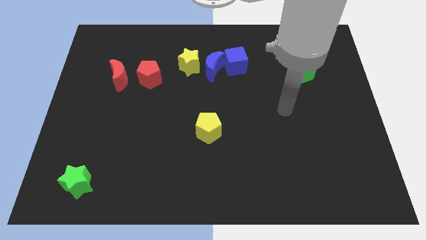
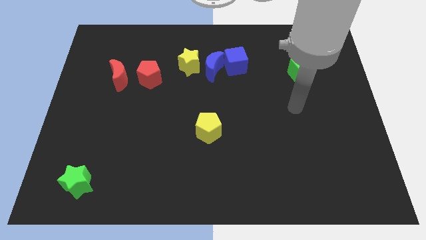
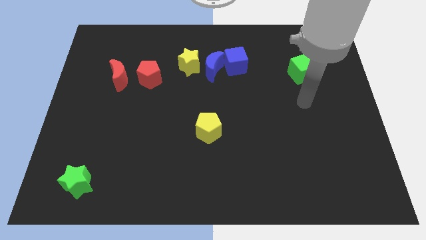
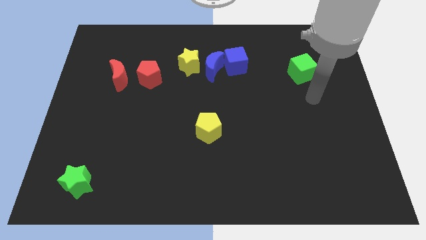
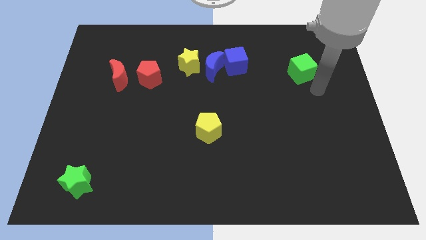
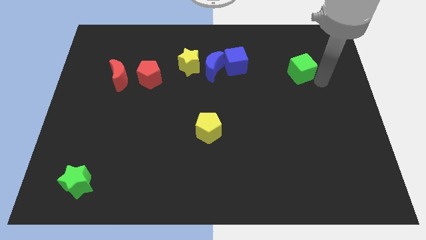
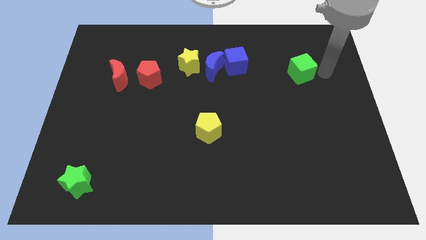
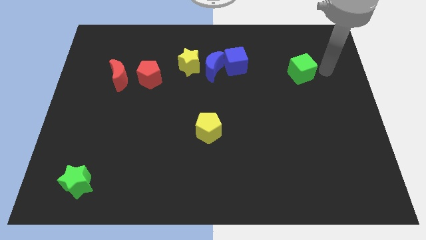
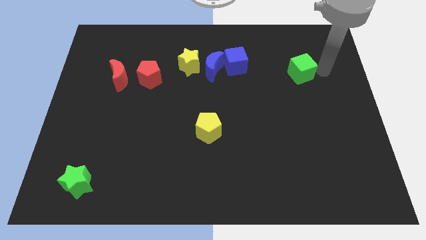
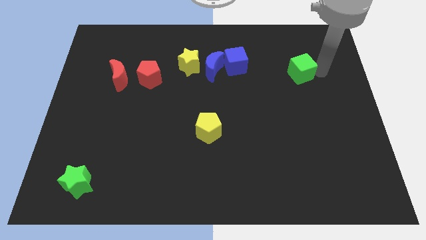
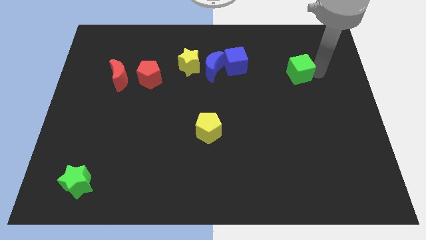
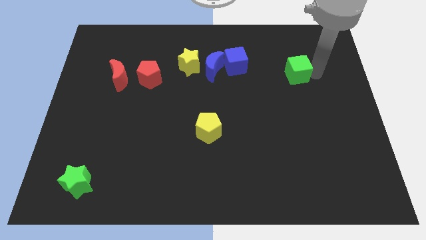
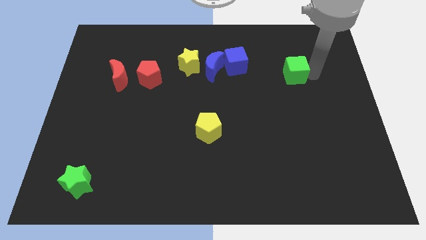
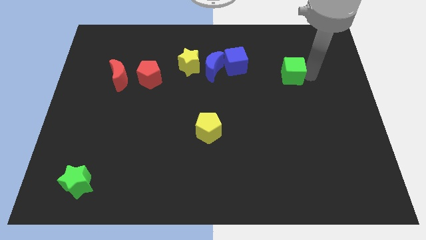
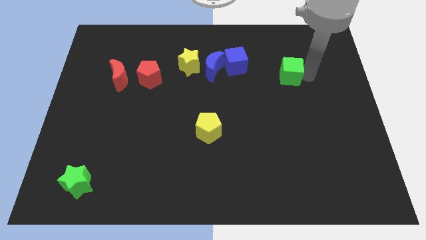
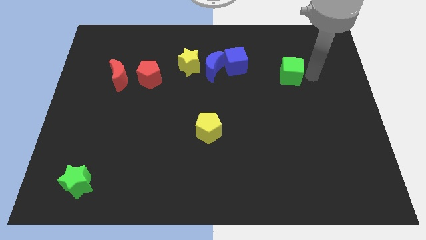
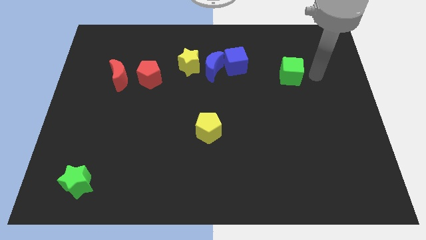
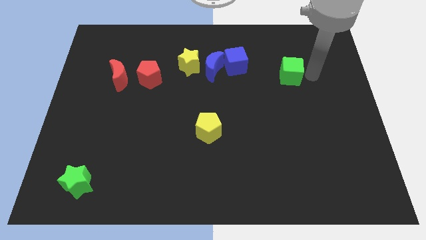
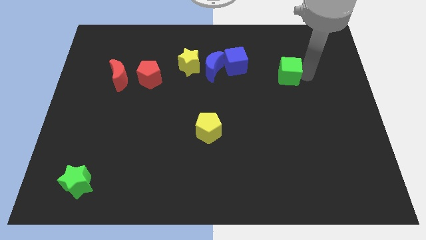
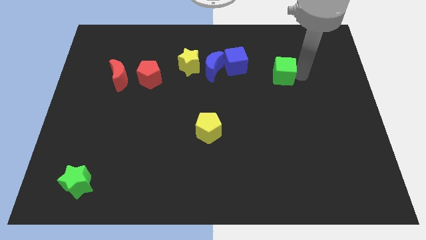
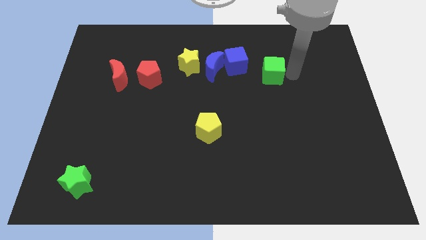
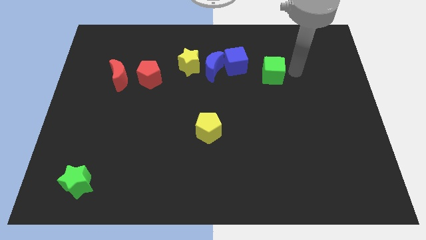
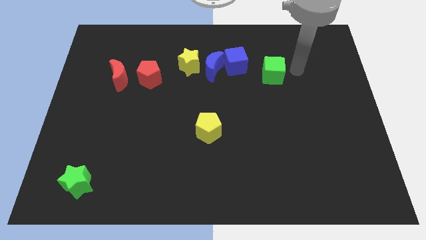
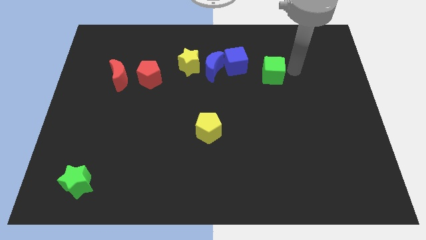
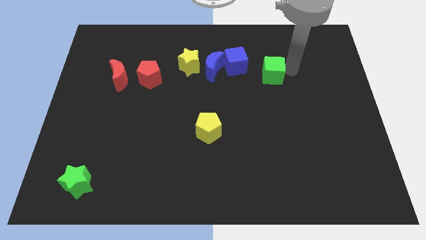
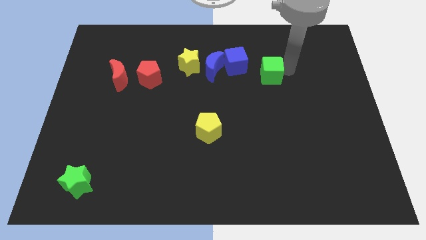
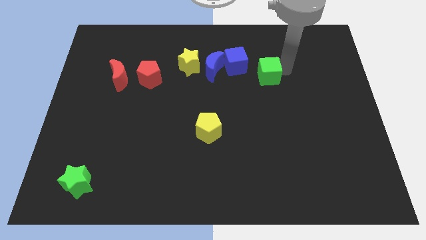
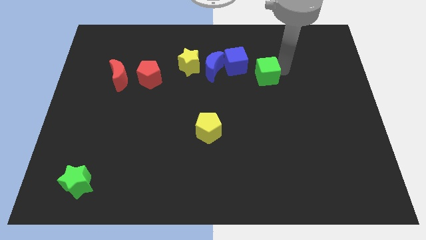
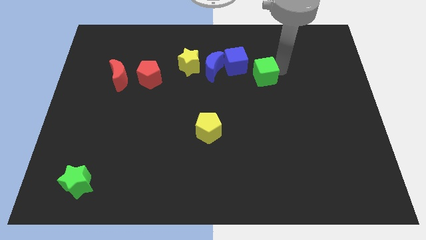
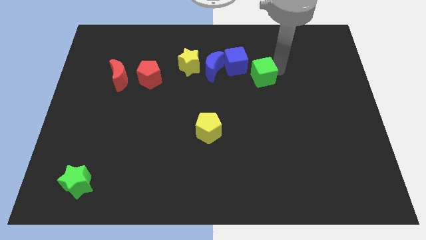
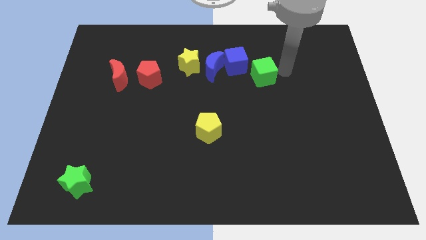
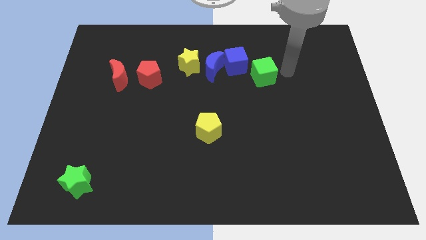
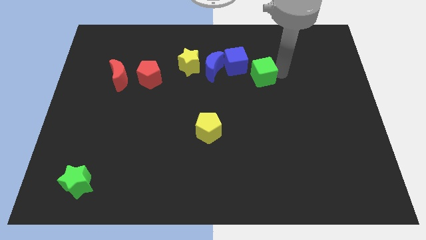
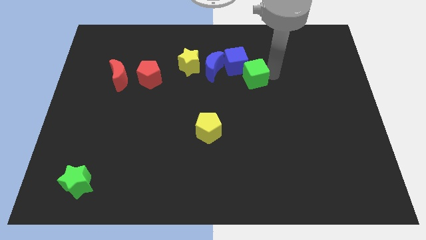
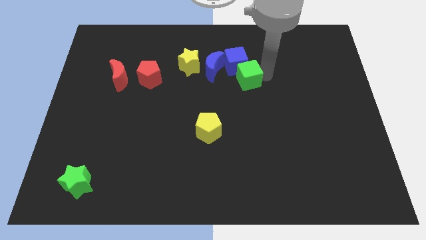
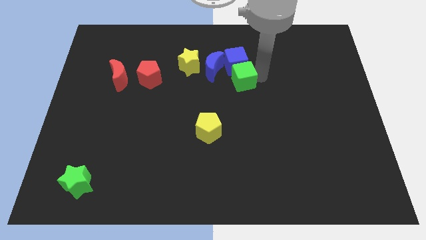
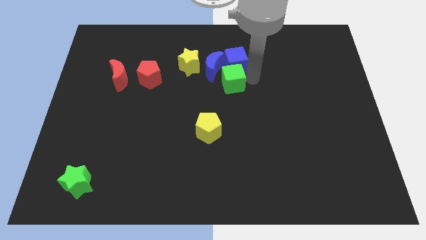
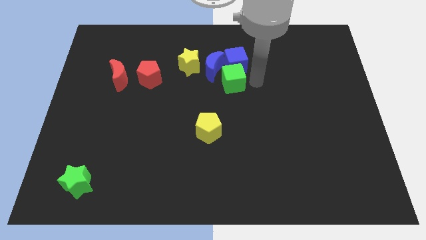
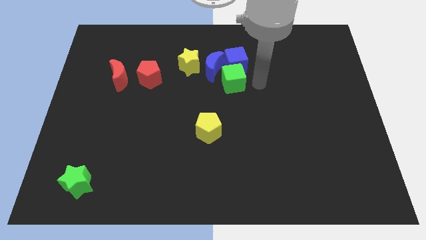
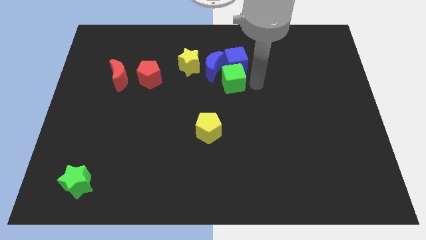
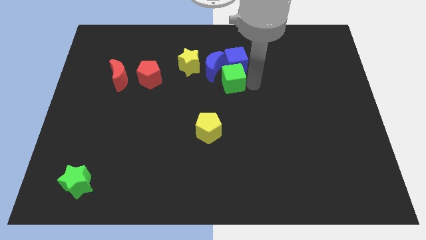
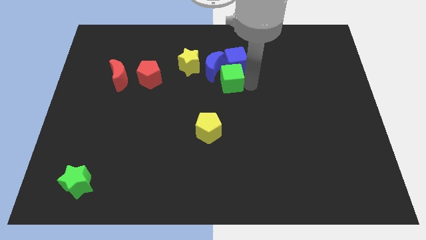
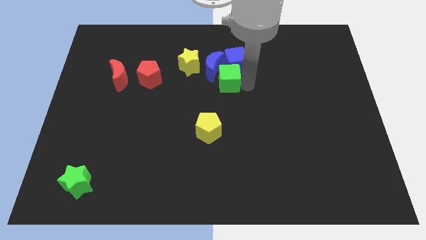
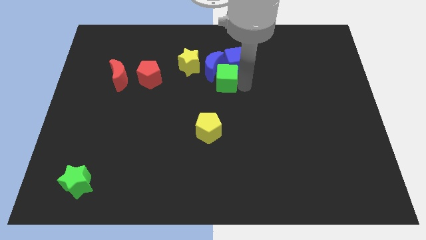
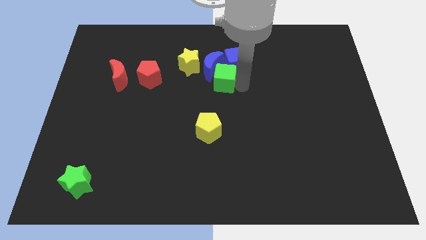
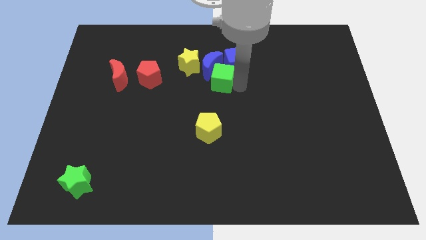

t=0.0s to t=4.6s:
move the green cube to the left

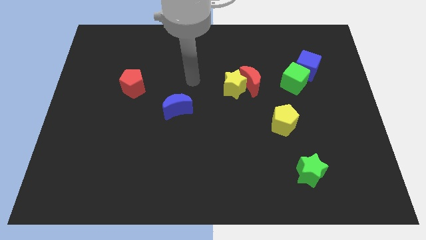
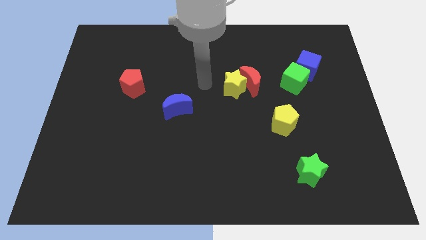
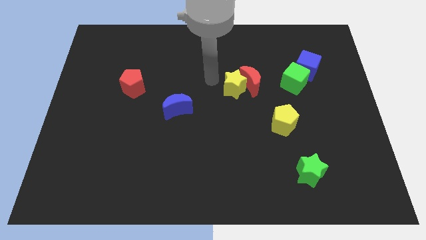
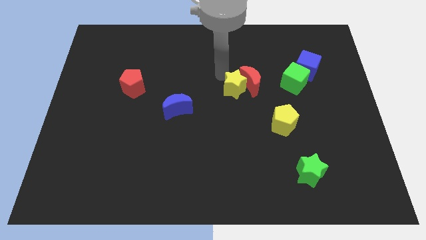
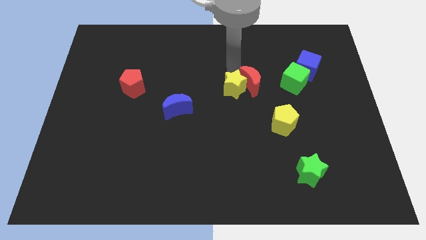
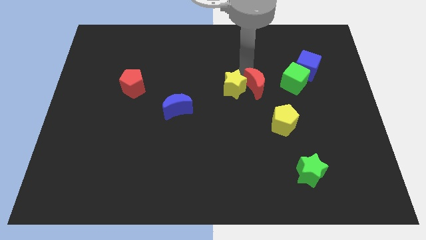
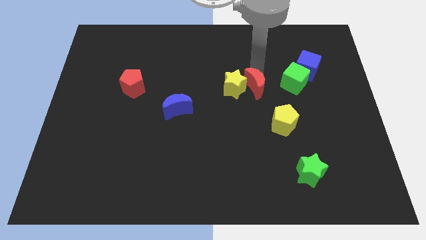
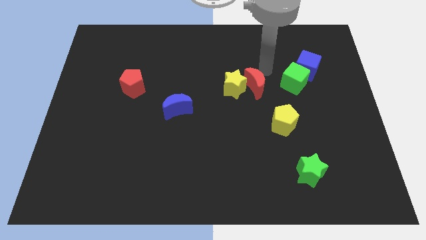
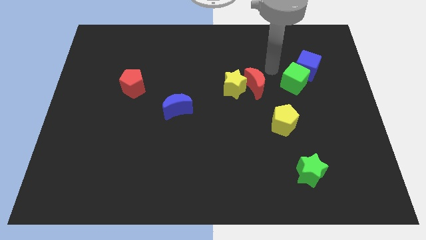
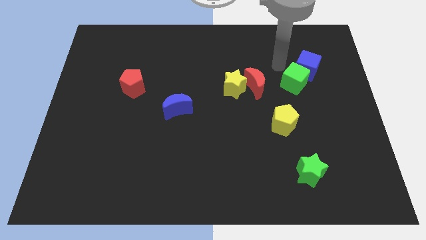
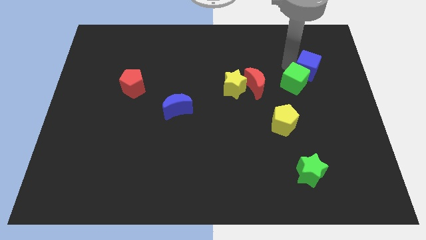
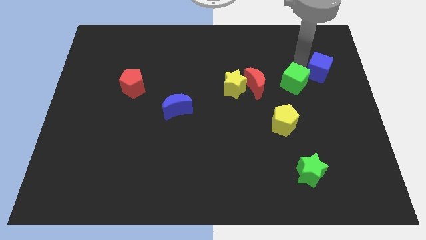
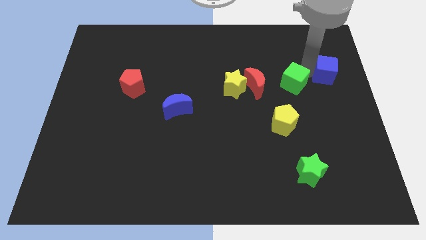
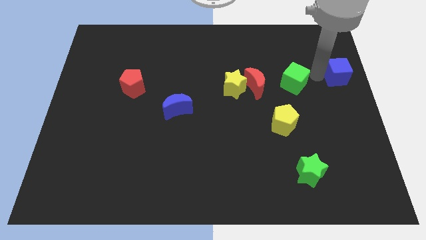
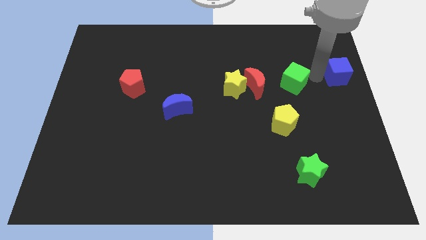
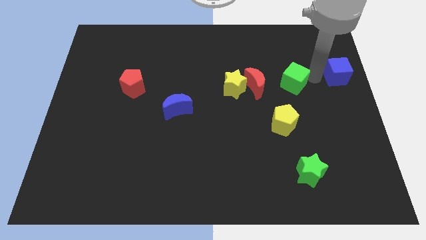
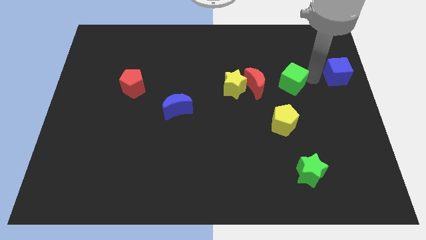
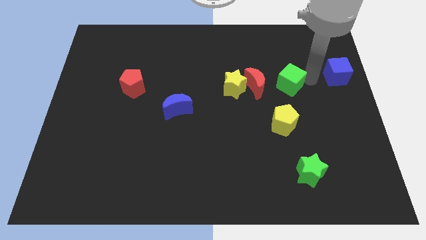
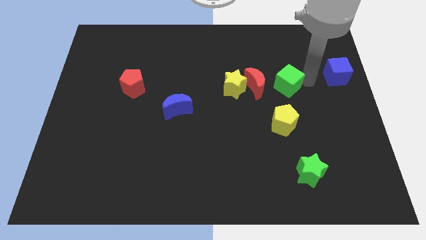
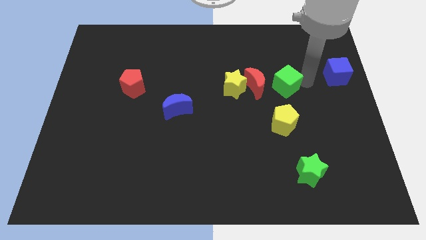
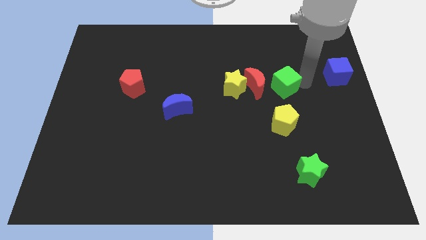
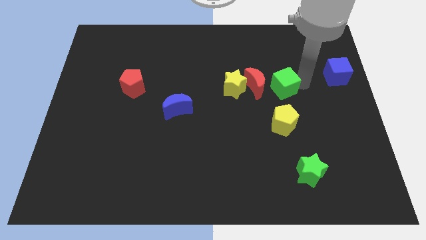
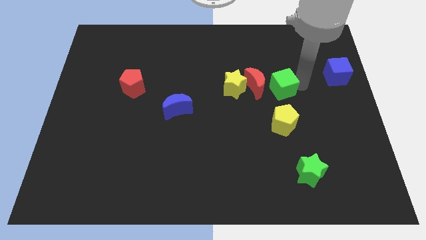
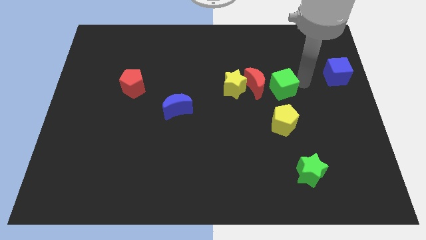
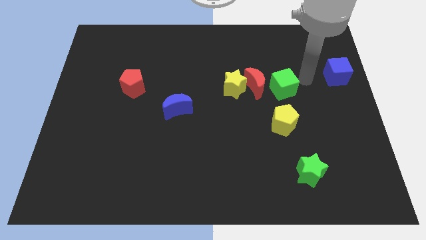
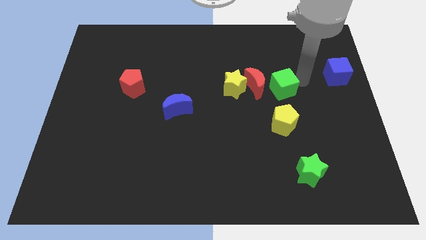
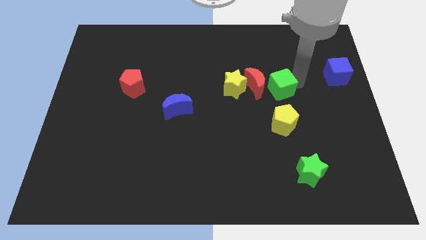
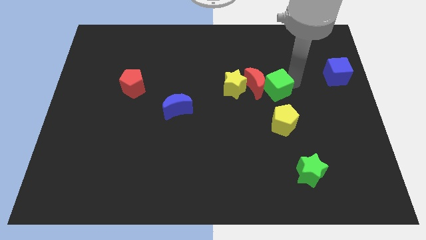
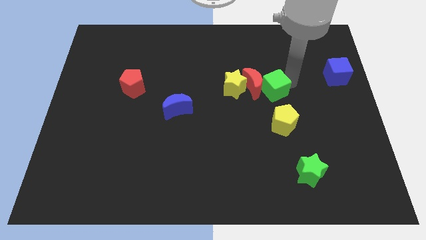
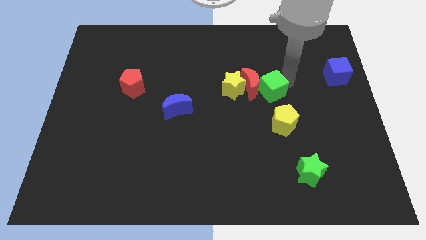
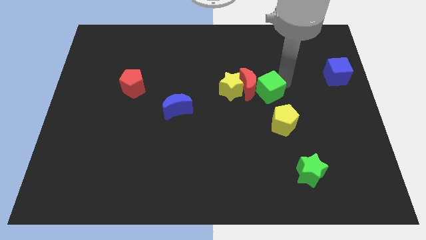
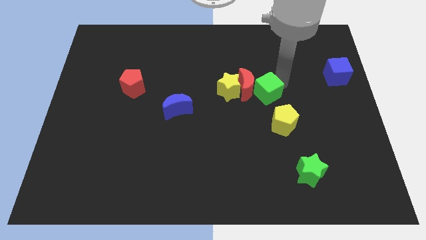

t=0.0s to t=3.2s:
slightly slide the green cube downwards and then to the left

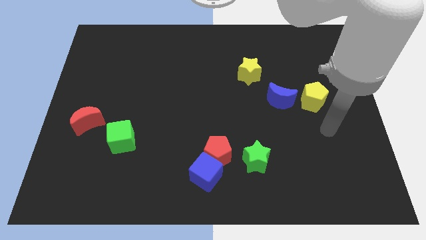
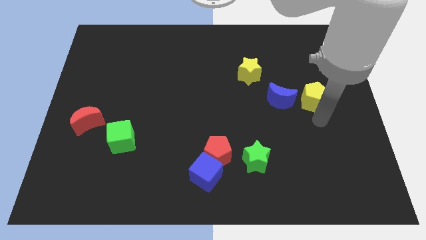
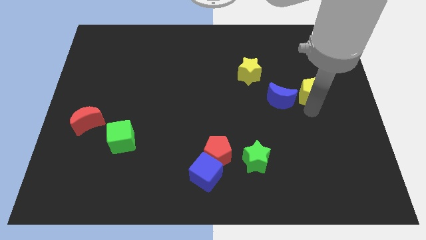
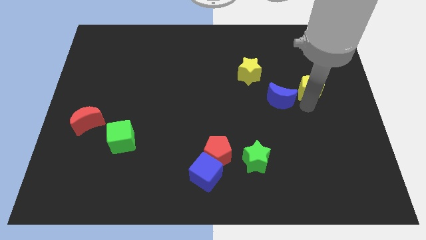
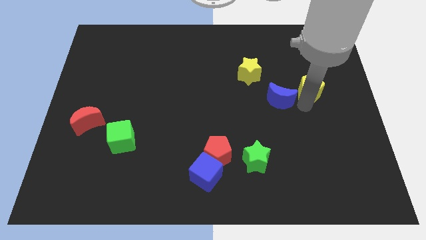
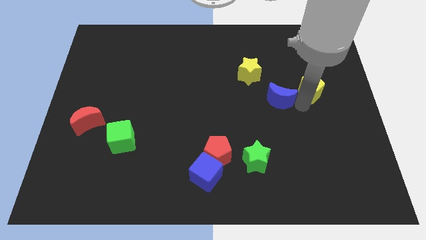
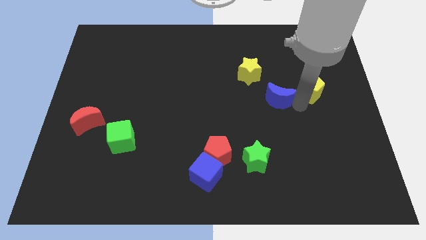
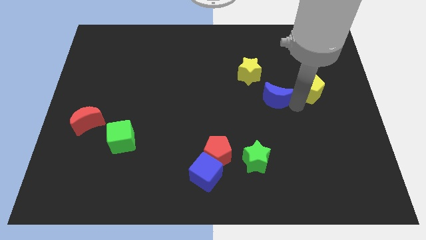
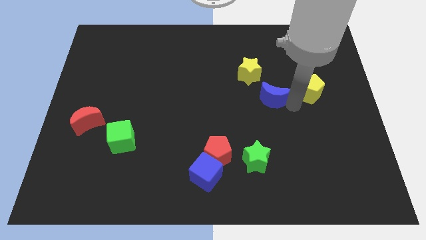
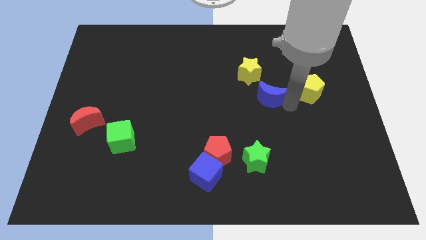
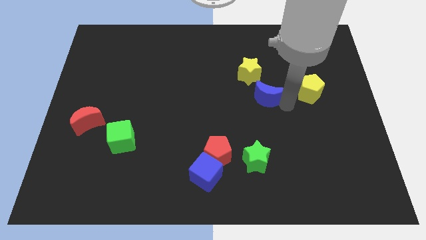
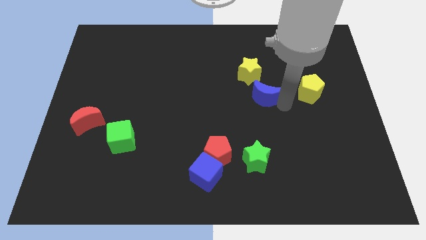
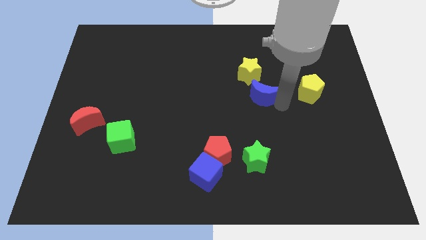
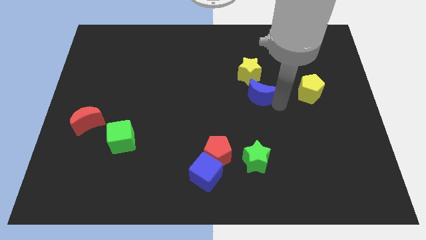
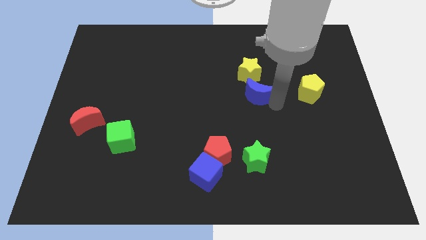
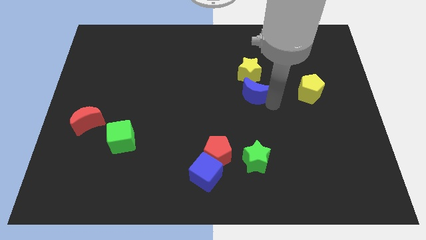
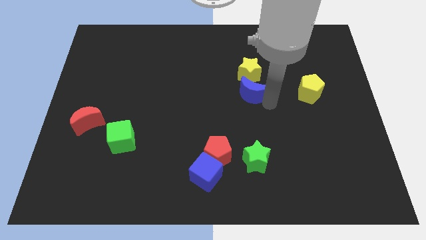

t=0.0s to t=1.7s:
move the blue moon a little bit left
